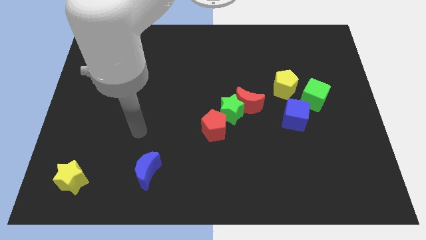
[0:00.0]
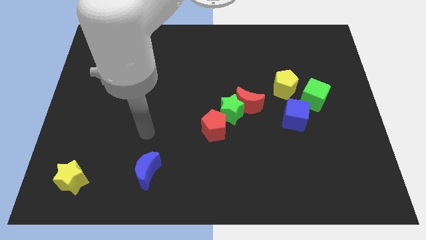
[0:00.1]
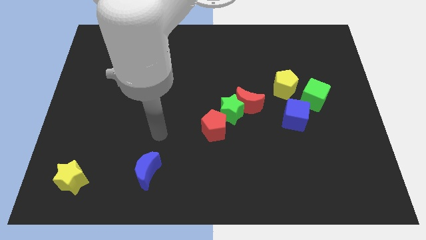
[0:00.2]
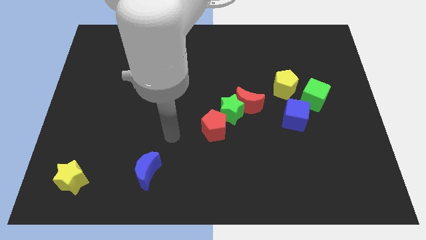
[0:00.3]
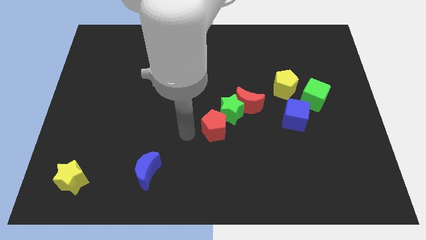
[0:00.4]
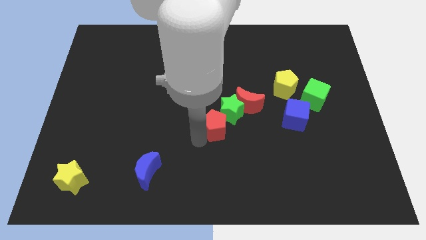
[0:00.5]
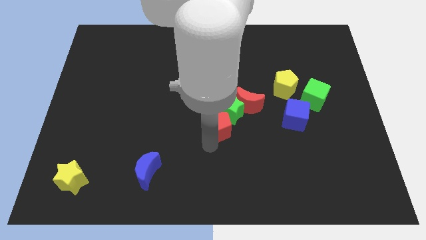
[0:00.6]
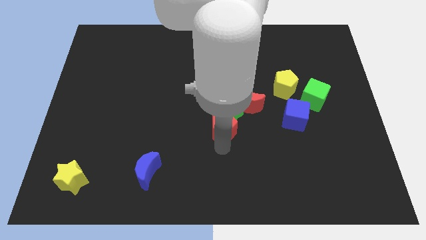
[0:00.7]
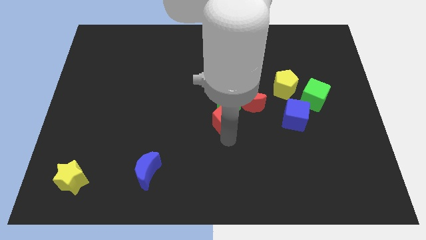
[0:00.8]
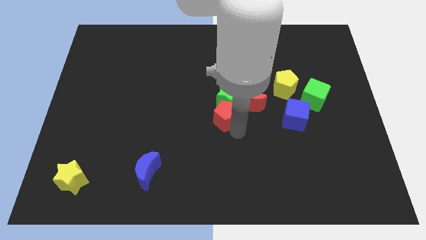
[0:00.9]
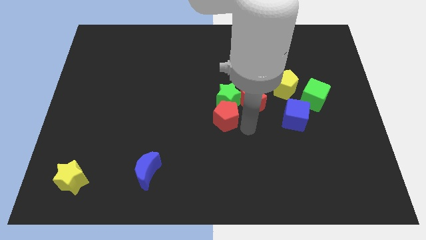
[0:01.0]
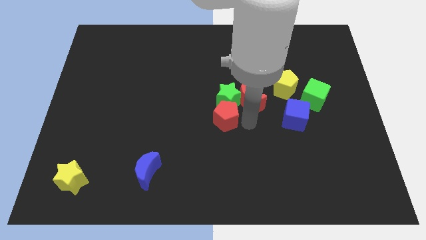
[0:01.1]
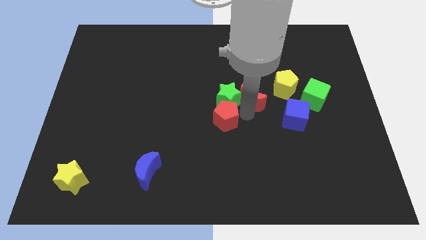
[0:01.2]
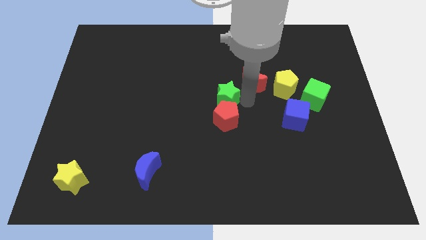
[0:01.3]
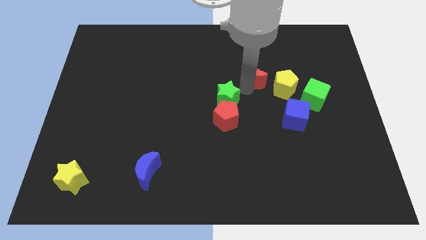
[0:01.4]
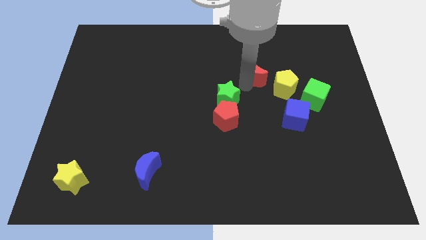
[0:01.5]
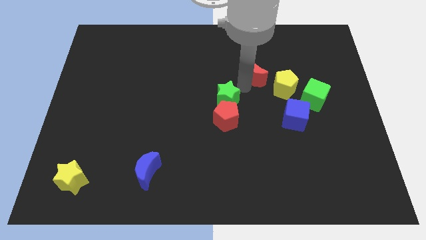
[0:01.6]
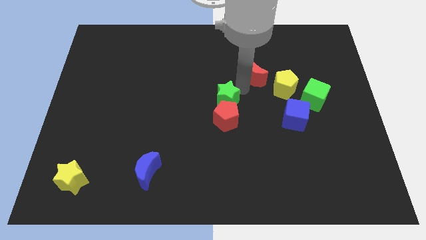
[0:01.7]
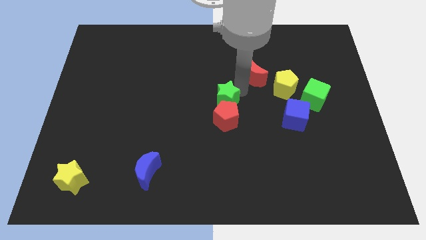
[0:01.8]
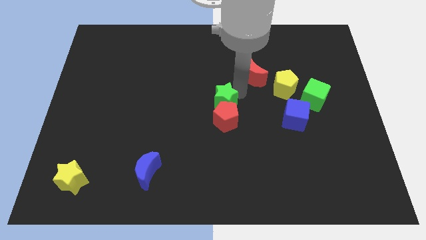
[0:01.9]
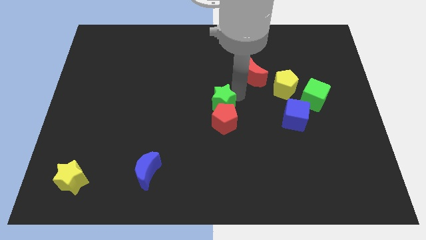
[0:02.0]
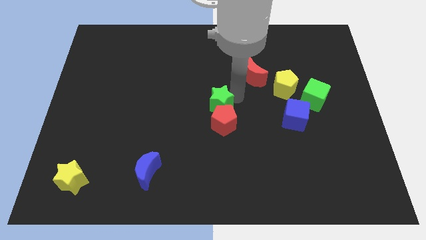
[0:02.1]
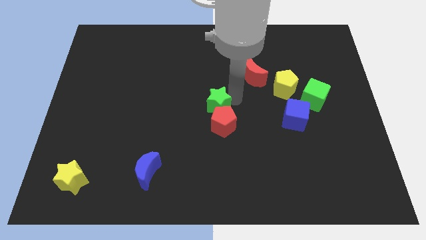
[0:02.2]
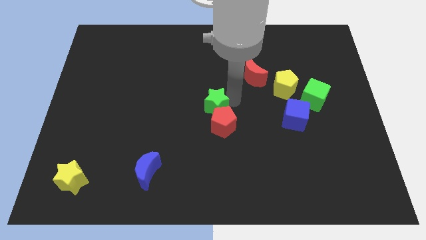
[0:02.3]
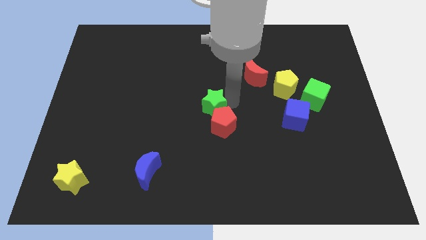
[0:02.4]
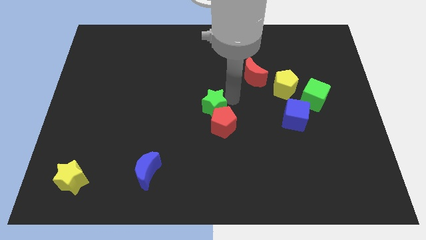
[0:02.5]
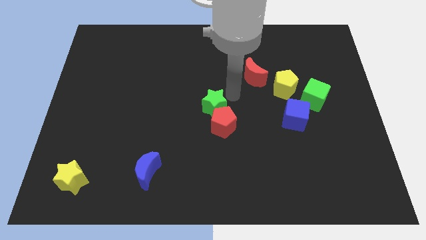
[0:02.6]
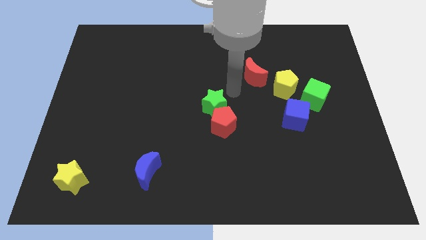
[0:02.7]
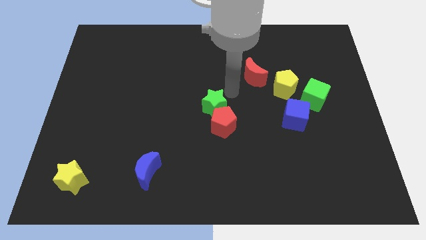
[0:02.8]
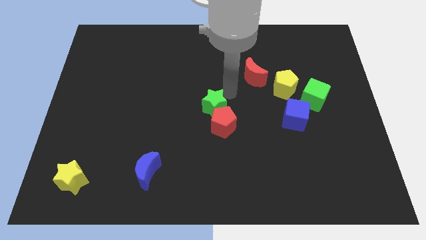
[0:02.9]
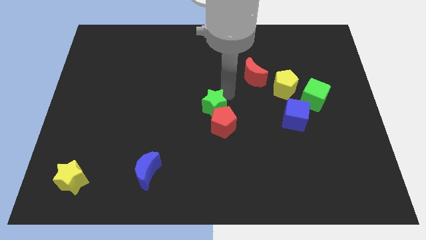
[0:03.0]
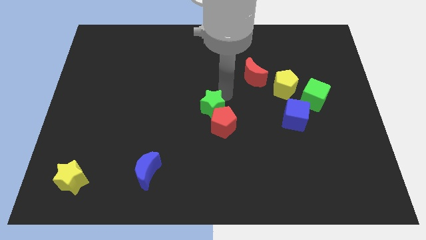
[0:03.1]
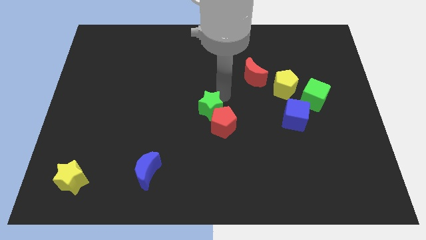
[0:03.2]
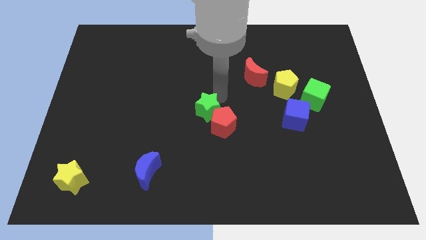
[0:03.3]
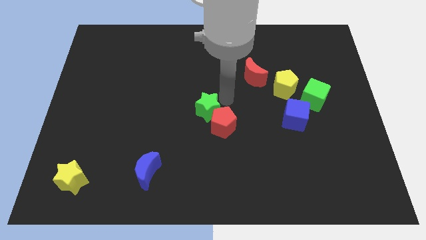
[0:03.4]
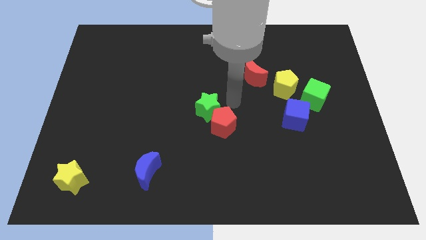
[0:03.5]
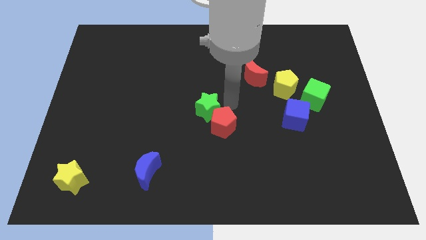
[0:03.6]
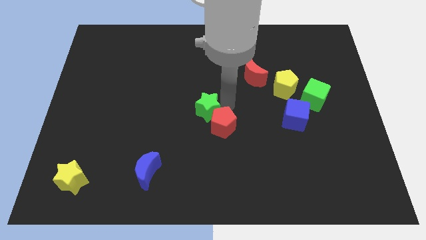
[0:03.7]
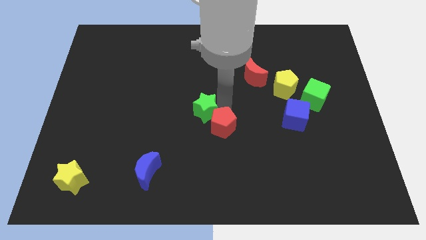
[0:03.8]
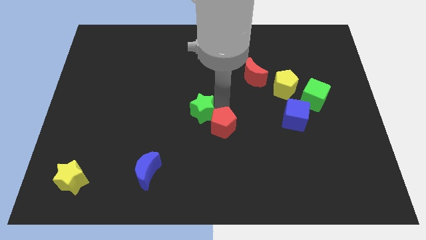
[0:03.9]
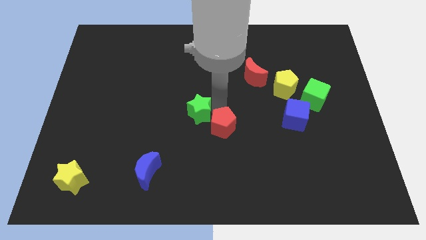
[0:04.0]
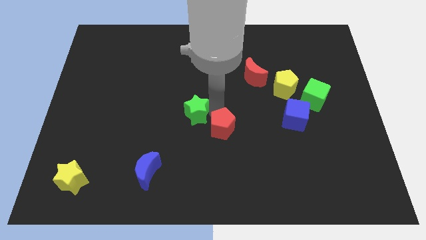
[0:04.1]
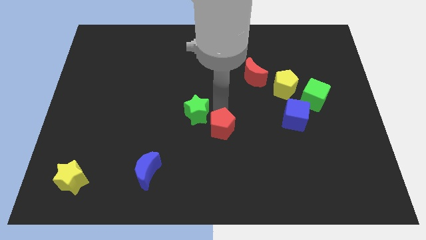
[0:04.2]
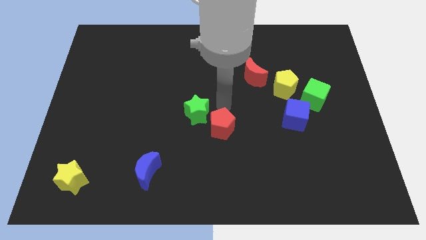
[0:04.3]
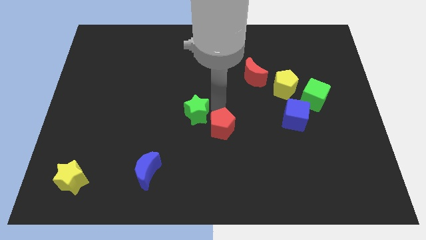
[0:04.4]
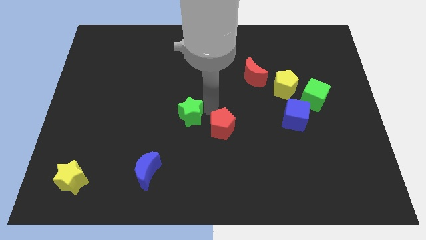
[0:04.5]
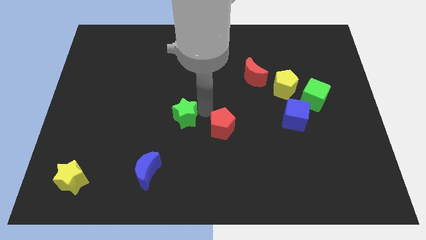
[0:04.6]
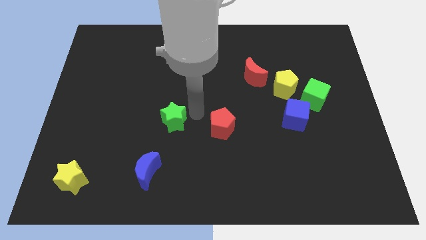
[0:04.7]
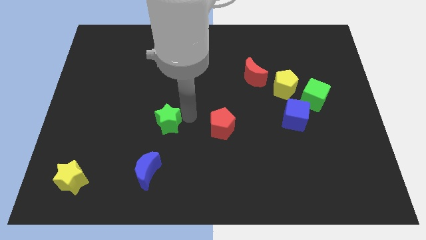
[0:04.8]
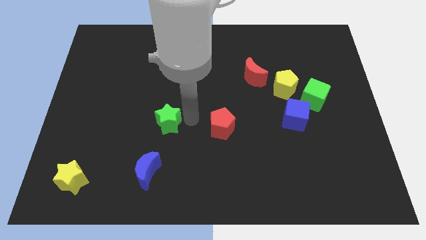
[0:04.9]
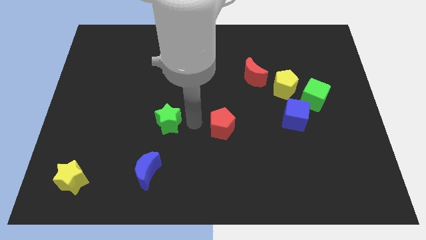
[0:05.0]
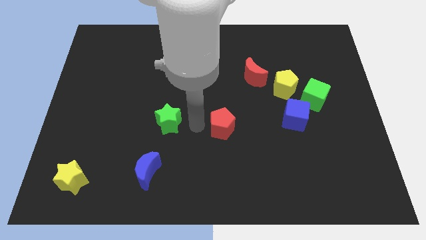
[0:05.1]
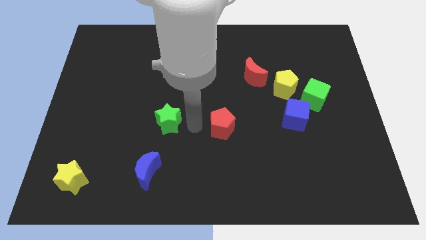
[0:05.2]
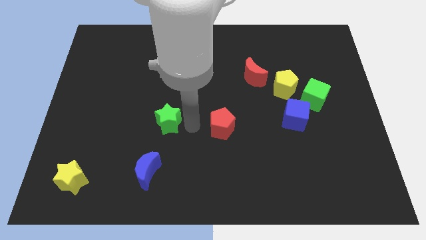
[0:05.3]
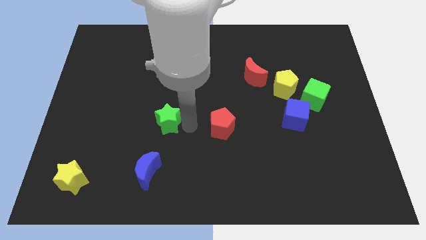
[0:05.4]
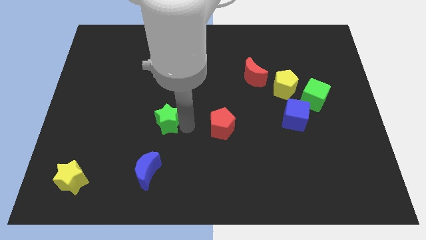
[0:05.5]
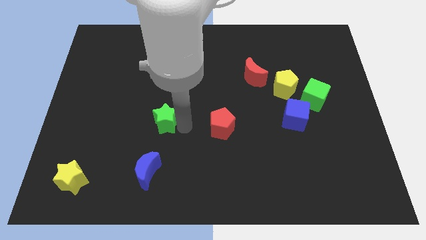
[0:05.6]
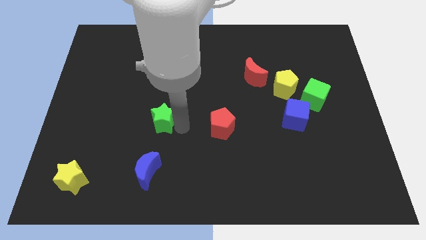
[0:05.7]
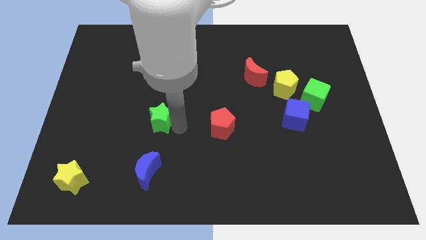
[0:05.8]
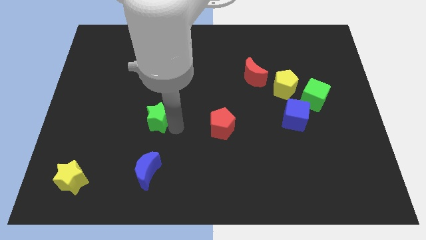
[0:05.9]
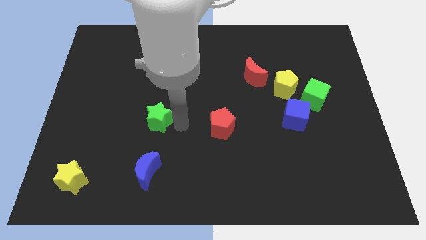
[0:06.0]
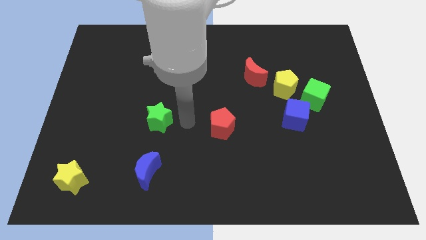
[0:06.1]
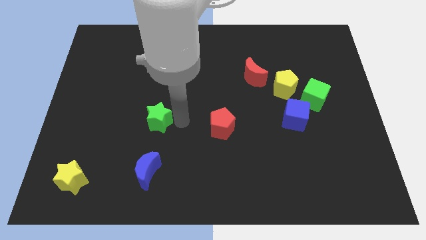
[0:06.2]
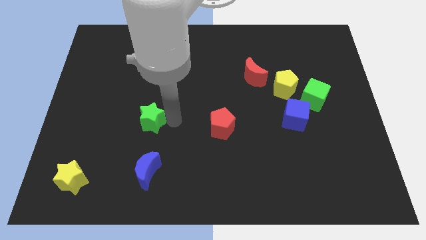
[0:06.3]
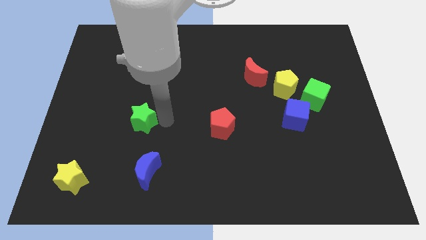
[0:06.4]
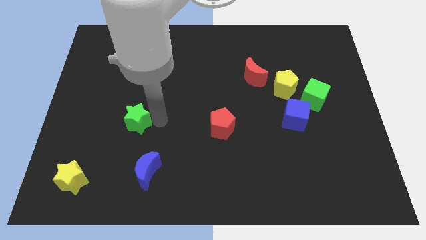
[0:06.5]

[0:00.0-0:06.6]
slide the green star left

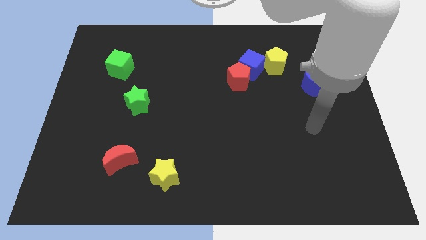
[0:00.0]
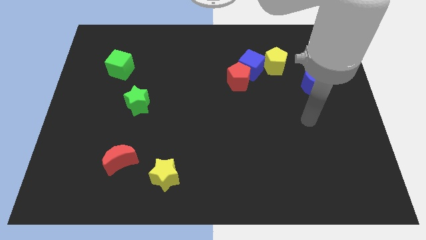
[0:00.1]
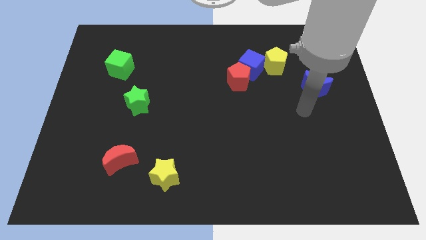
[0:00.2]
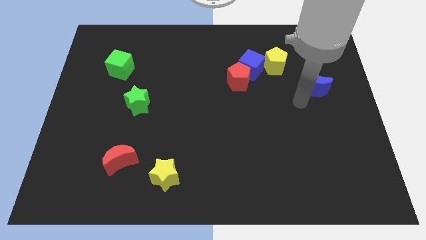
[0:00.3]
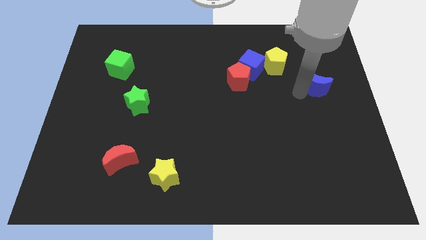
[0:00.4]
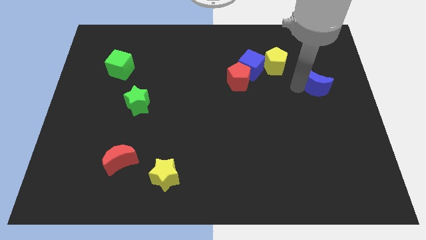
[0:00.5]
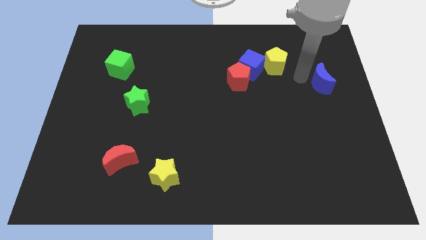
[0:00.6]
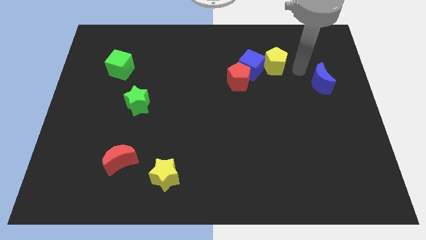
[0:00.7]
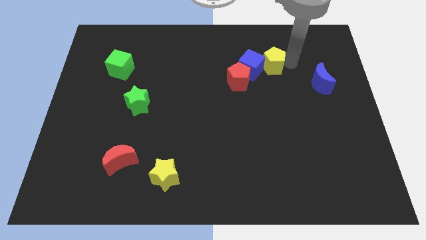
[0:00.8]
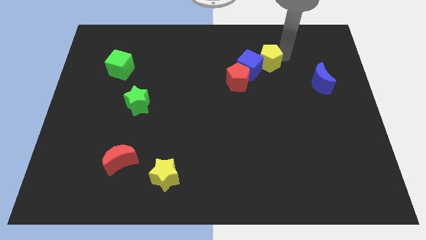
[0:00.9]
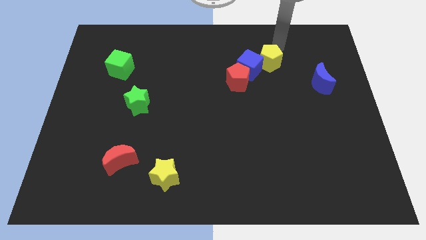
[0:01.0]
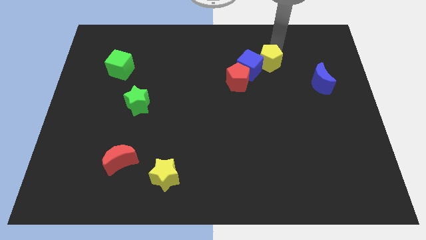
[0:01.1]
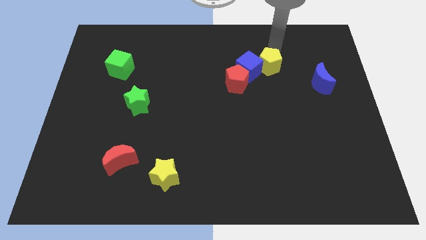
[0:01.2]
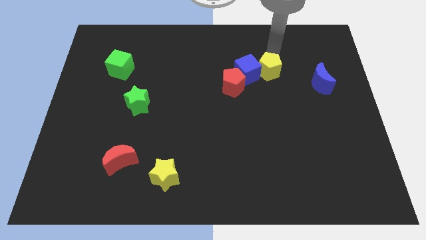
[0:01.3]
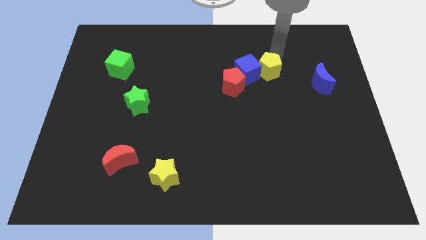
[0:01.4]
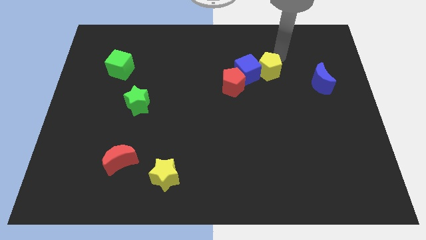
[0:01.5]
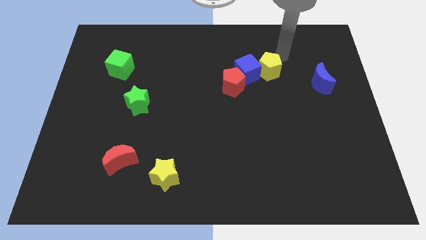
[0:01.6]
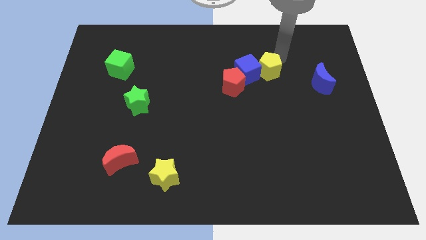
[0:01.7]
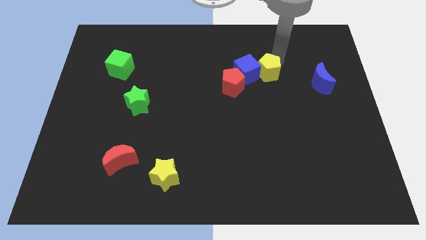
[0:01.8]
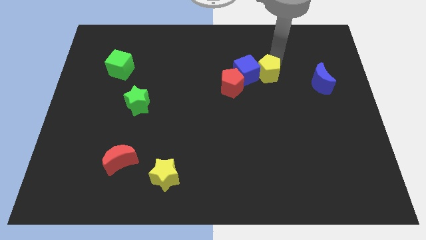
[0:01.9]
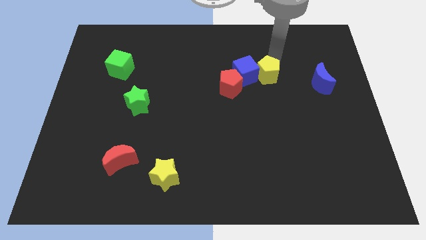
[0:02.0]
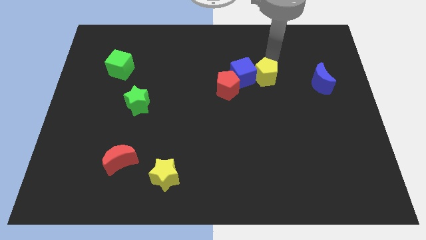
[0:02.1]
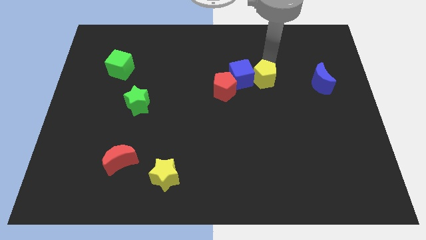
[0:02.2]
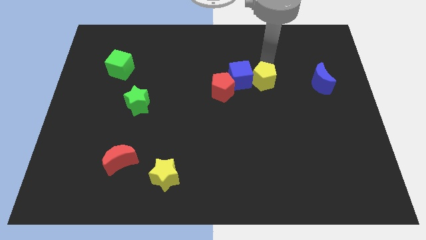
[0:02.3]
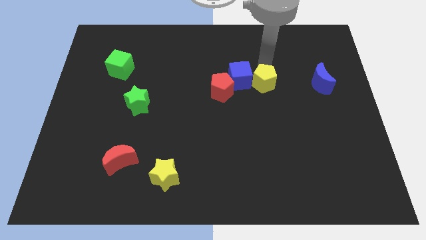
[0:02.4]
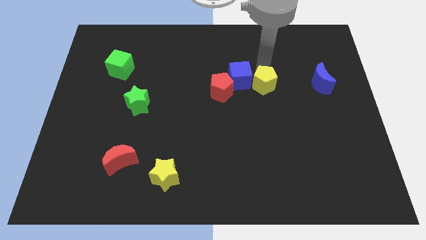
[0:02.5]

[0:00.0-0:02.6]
slightly slide the yellow pentagon diagonally downwards and to the left
